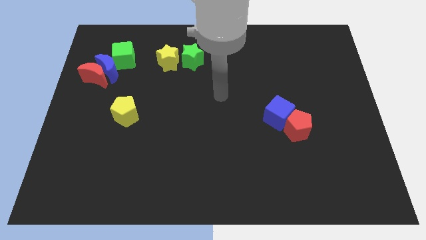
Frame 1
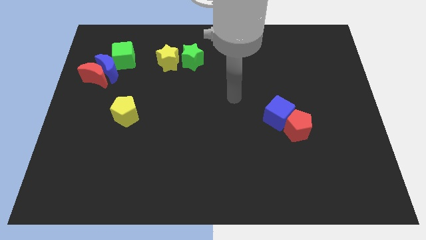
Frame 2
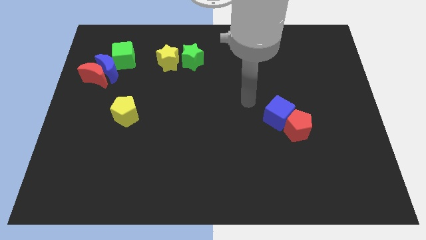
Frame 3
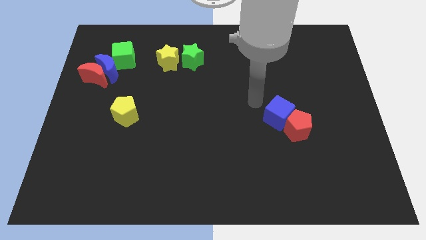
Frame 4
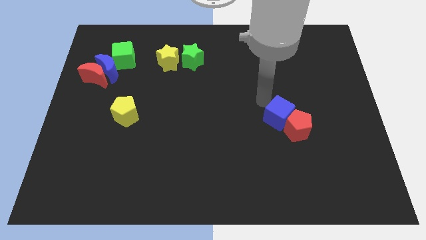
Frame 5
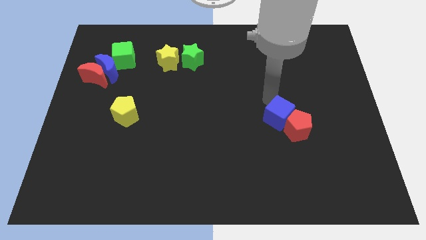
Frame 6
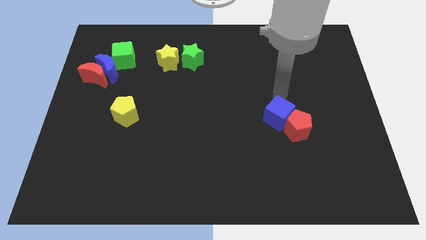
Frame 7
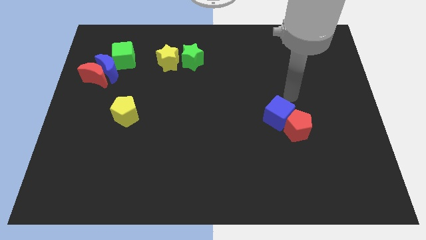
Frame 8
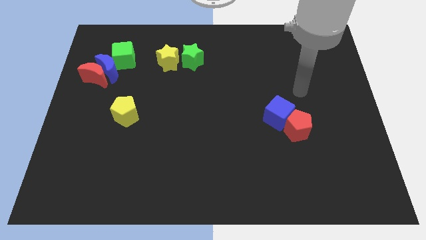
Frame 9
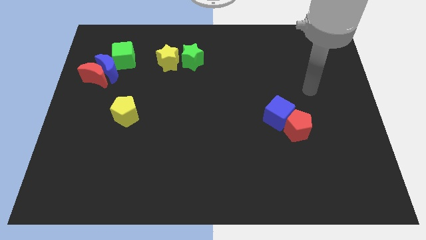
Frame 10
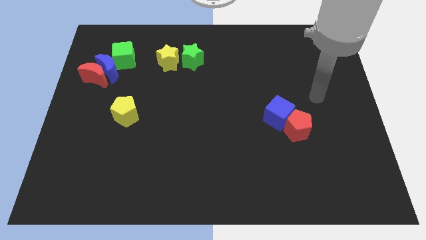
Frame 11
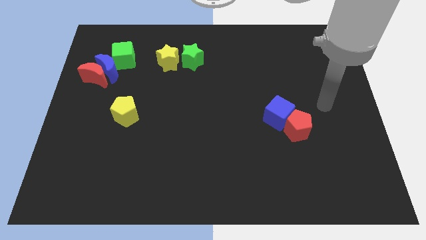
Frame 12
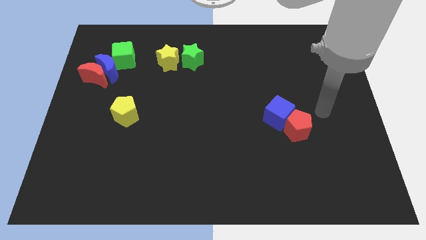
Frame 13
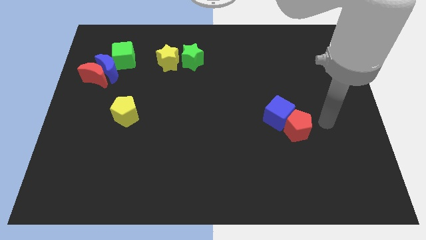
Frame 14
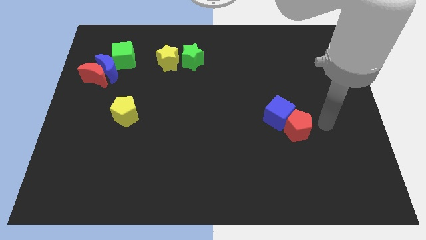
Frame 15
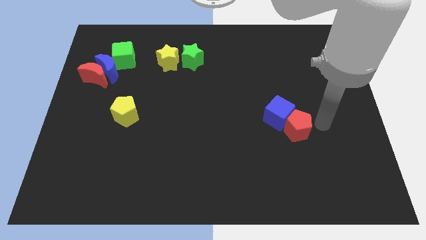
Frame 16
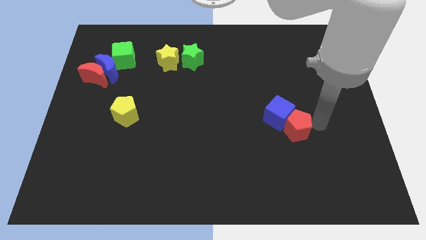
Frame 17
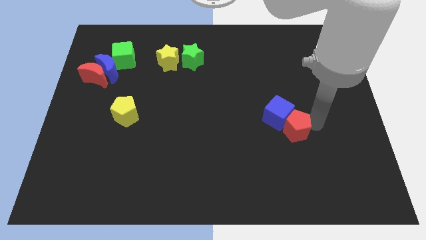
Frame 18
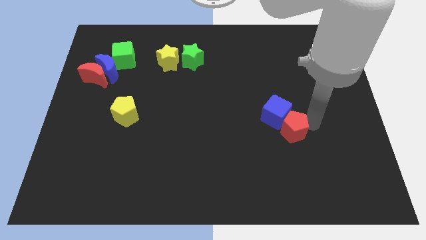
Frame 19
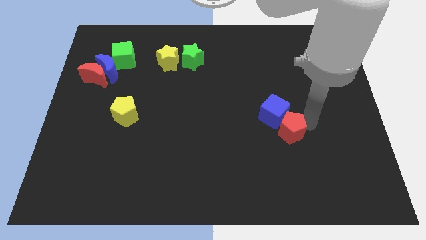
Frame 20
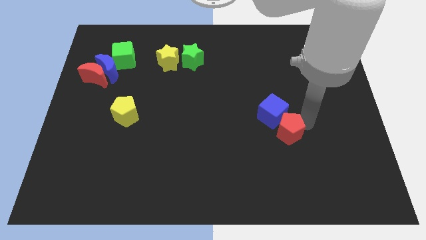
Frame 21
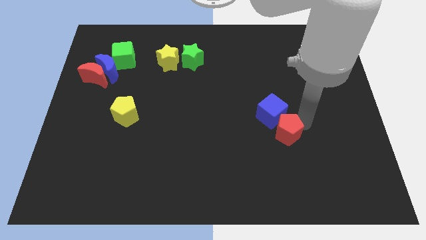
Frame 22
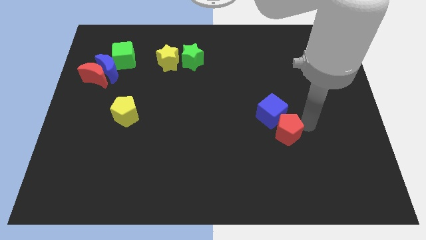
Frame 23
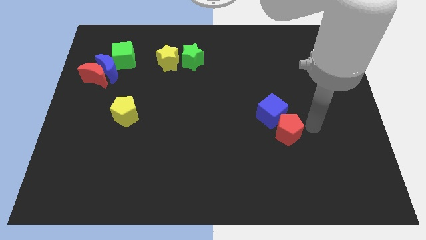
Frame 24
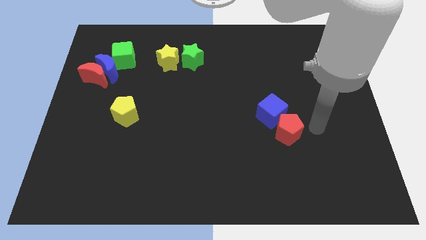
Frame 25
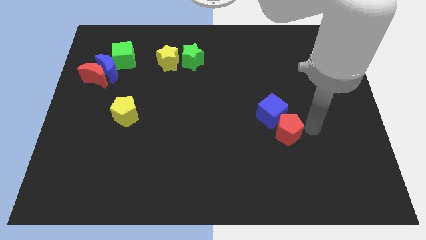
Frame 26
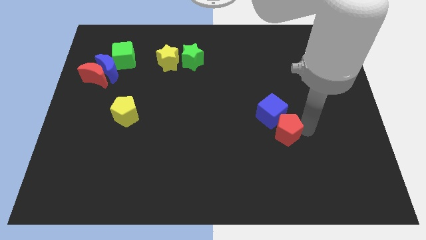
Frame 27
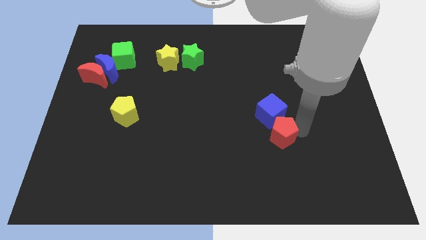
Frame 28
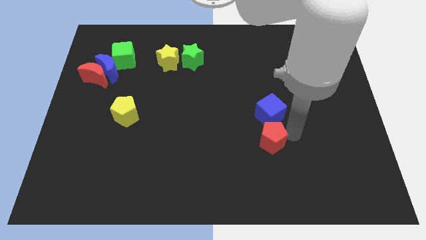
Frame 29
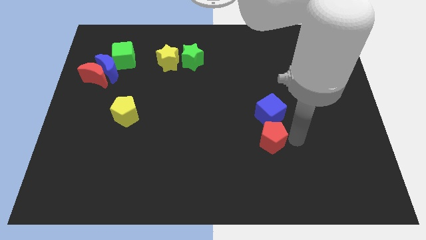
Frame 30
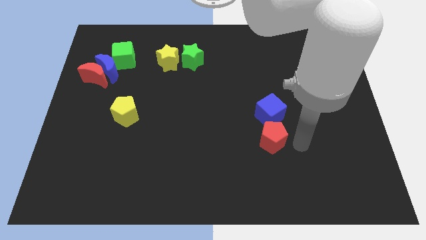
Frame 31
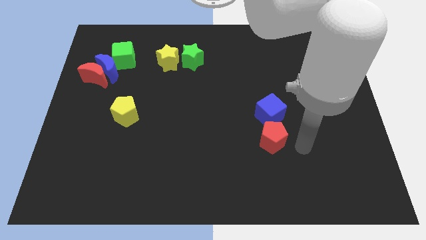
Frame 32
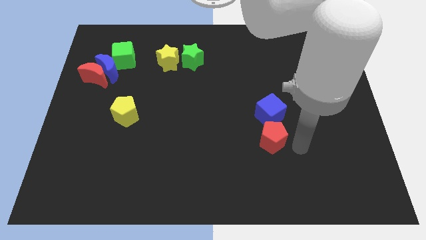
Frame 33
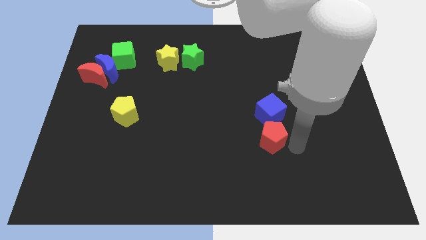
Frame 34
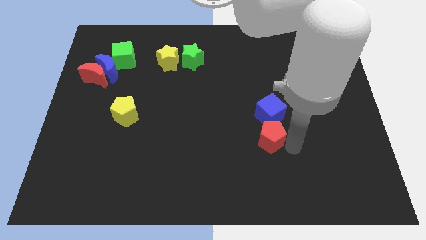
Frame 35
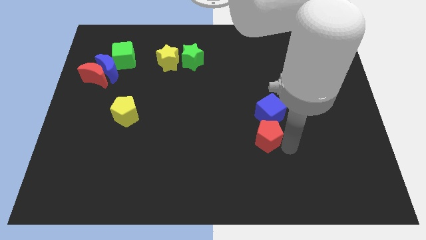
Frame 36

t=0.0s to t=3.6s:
slide the red pentagon slightly to the left

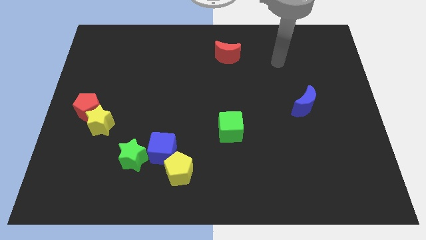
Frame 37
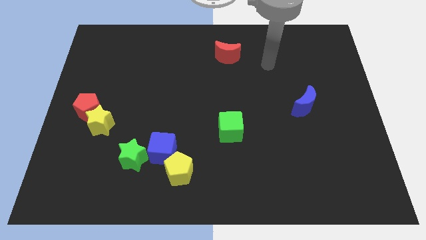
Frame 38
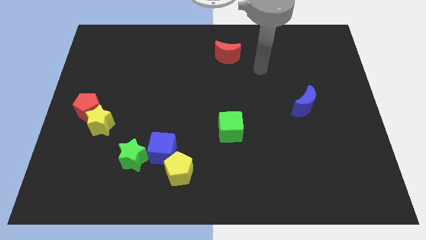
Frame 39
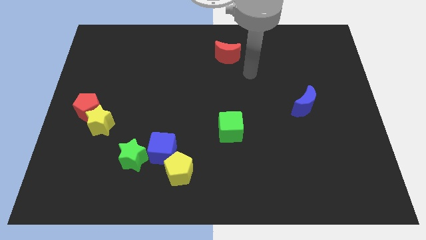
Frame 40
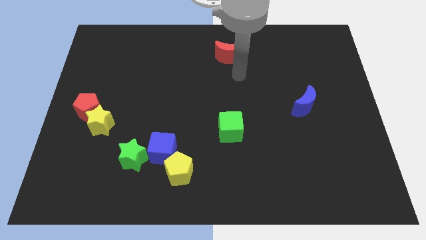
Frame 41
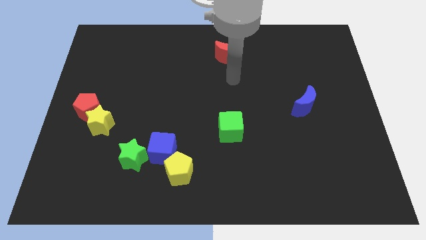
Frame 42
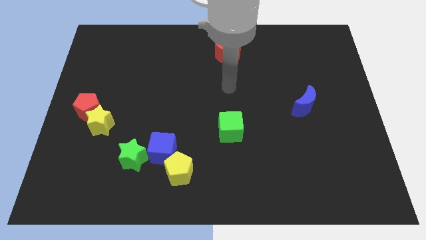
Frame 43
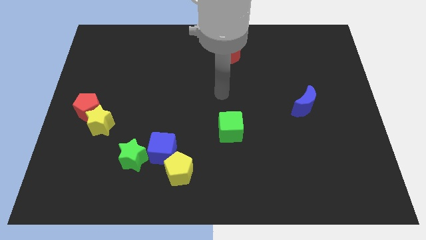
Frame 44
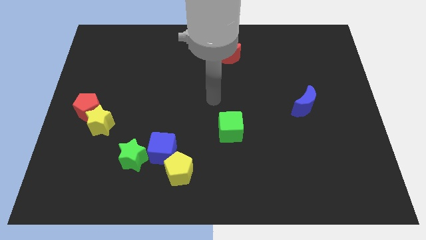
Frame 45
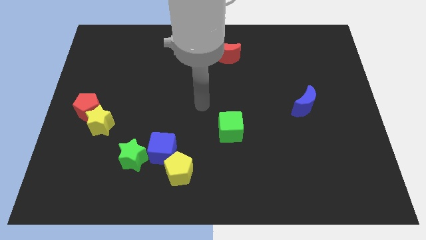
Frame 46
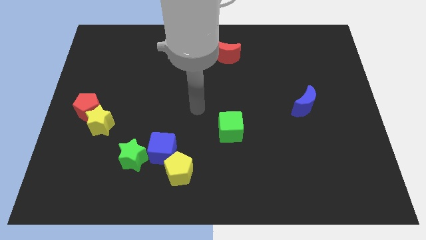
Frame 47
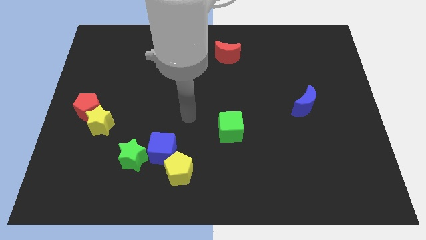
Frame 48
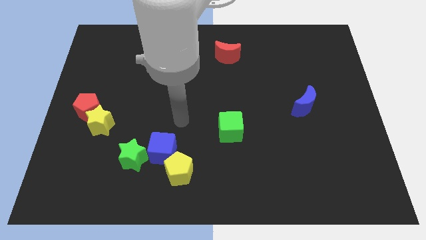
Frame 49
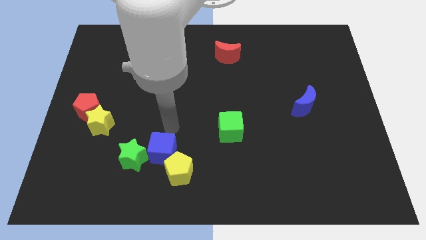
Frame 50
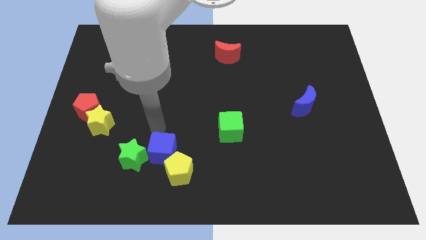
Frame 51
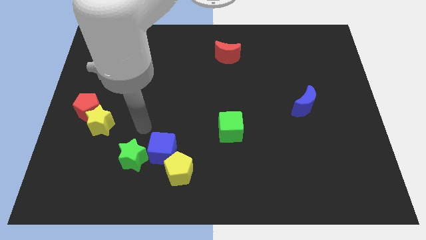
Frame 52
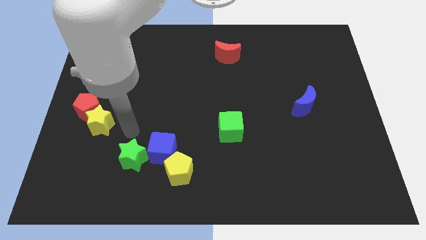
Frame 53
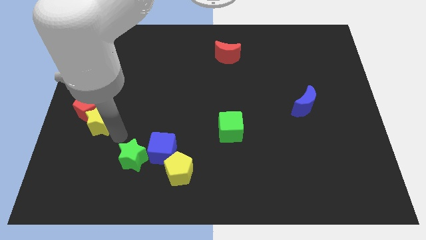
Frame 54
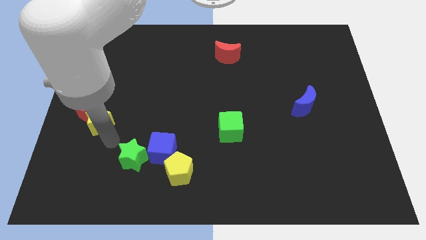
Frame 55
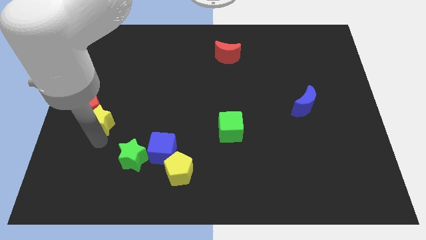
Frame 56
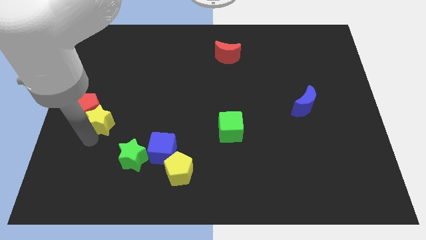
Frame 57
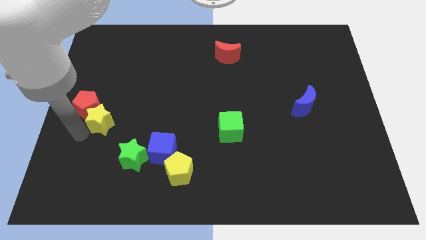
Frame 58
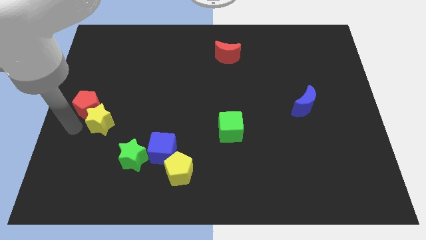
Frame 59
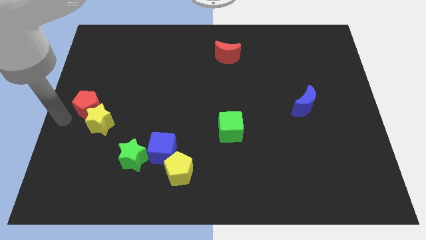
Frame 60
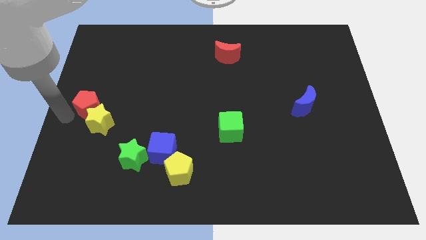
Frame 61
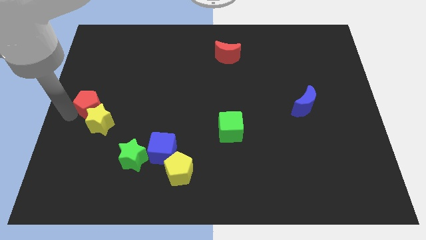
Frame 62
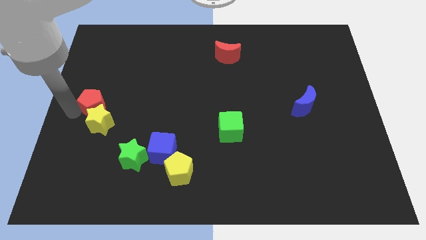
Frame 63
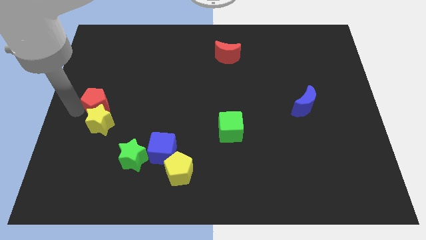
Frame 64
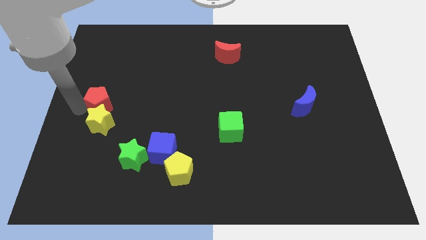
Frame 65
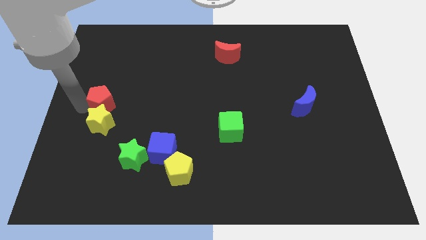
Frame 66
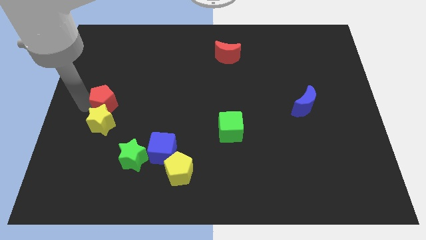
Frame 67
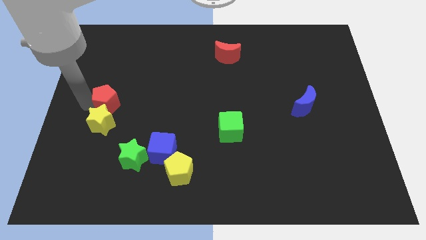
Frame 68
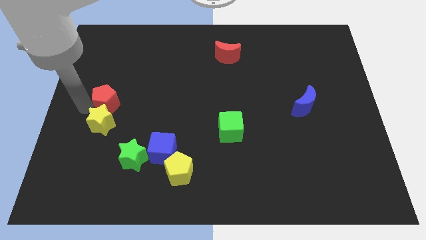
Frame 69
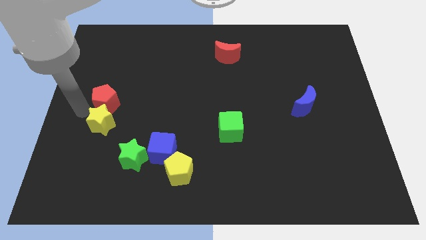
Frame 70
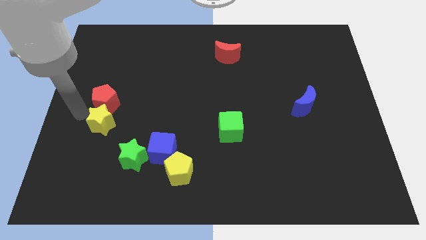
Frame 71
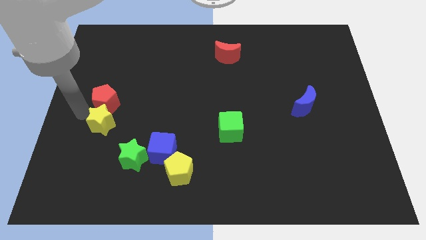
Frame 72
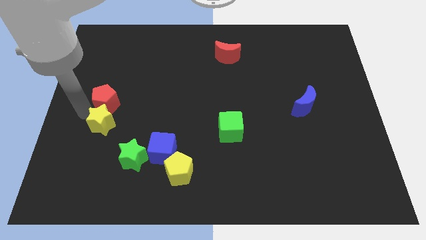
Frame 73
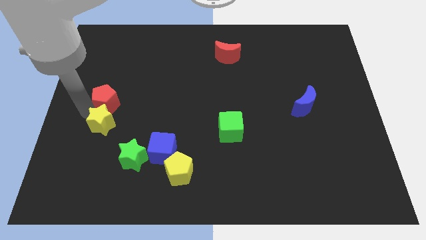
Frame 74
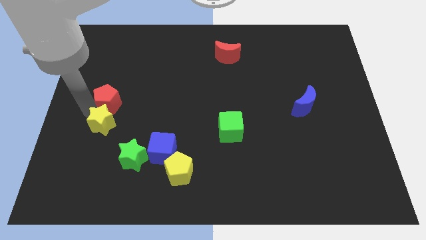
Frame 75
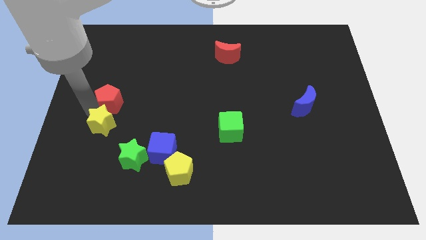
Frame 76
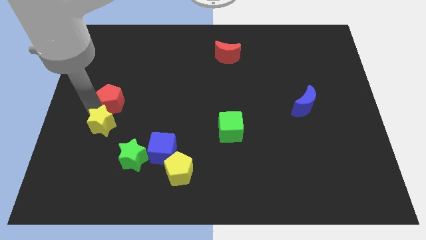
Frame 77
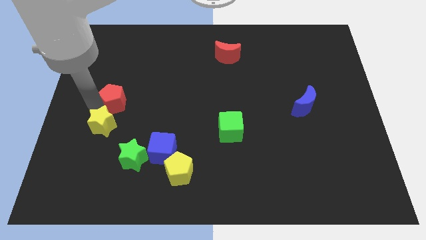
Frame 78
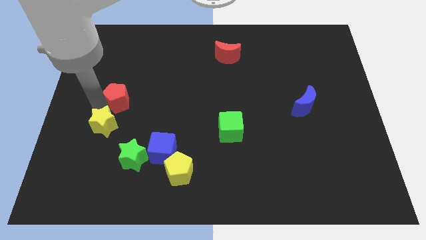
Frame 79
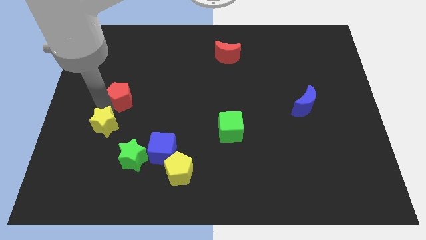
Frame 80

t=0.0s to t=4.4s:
slightly move the red pentagon up and to the right diagonally

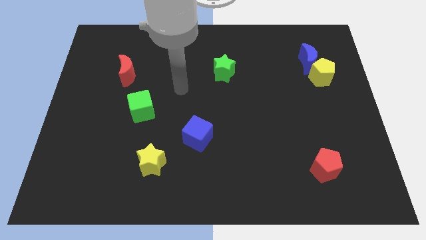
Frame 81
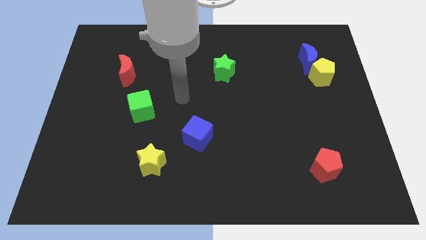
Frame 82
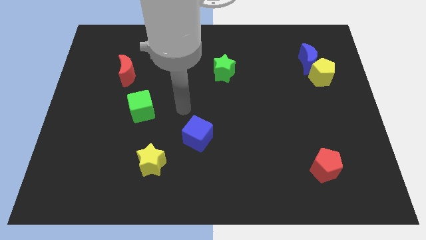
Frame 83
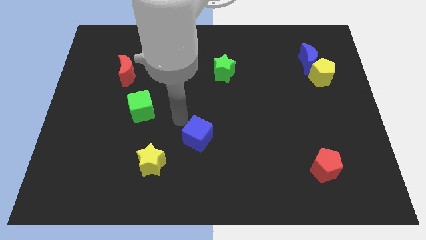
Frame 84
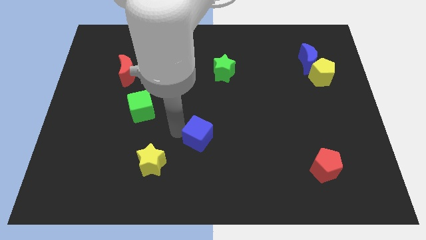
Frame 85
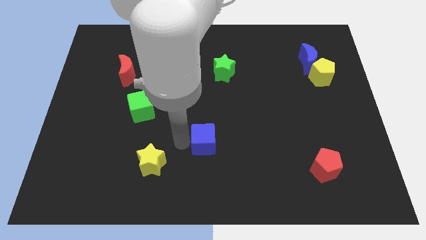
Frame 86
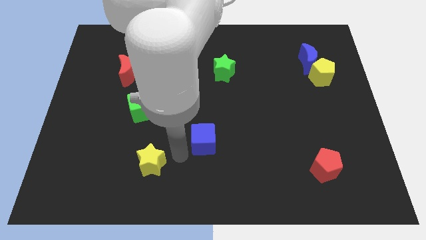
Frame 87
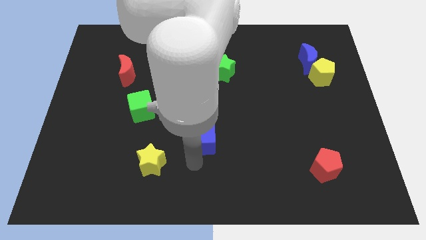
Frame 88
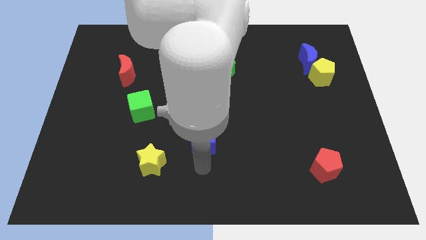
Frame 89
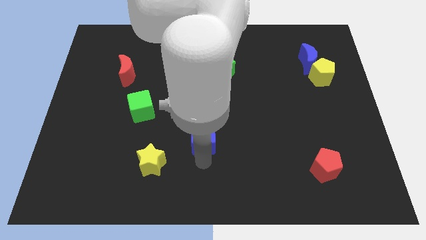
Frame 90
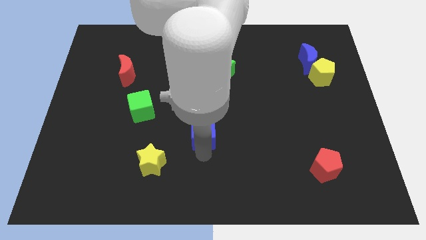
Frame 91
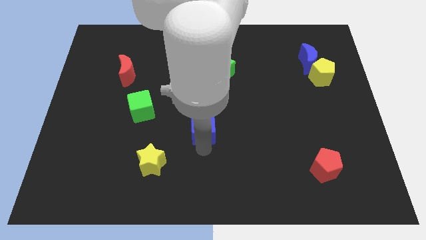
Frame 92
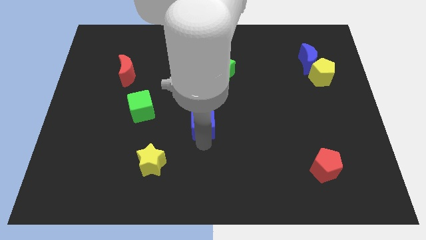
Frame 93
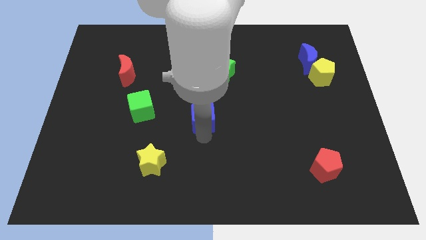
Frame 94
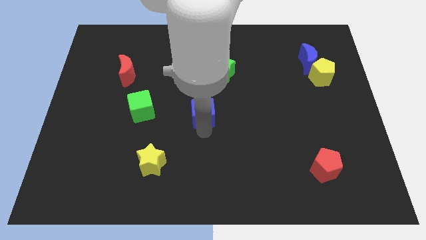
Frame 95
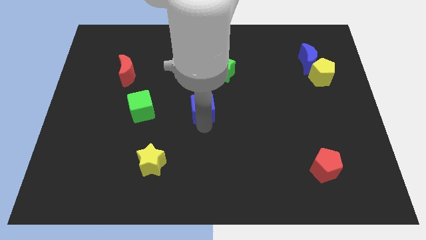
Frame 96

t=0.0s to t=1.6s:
slide the blue cube slightly up
